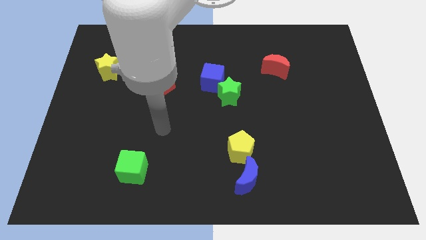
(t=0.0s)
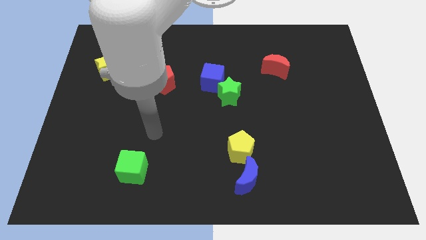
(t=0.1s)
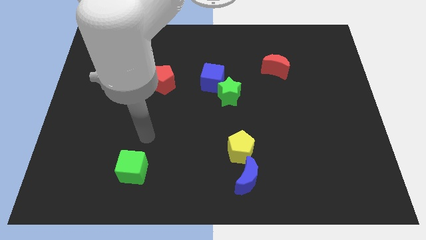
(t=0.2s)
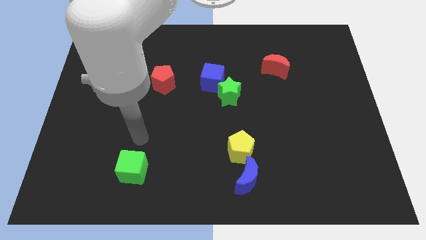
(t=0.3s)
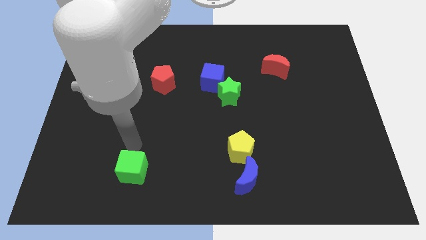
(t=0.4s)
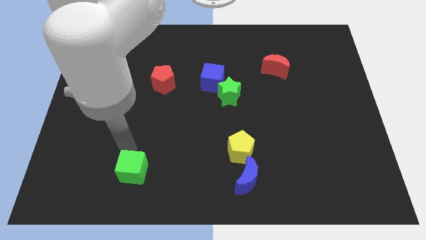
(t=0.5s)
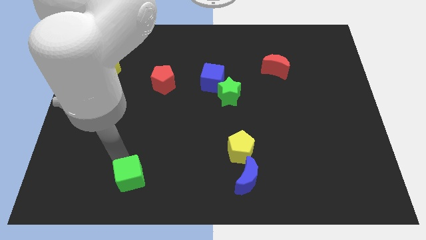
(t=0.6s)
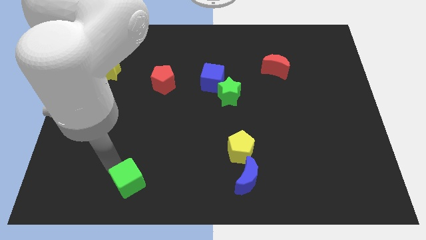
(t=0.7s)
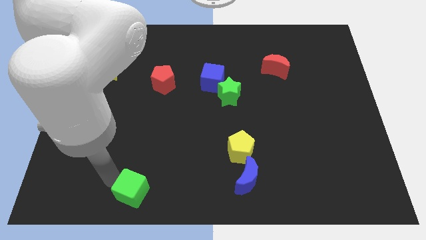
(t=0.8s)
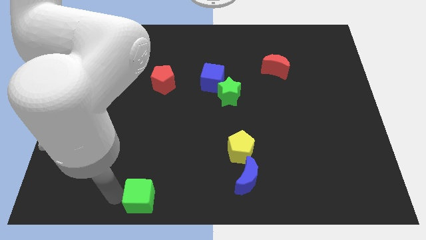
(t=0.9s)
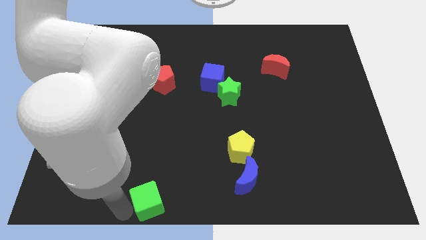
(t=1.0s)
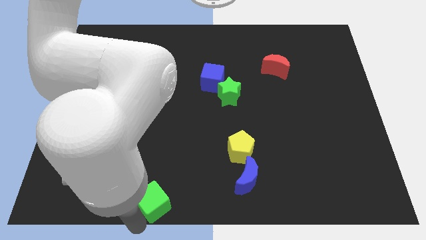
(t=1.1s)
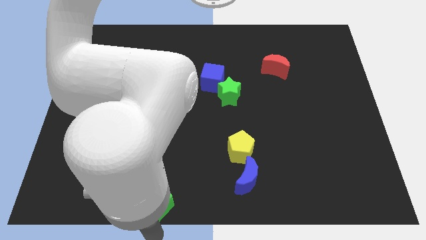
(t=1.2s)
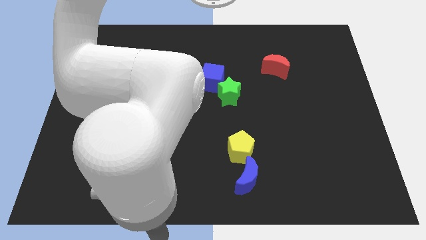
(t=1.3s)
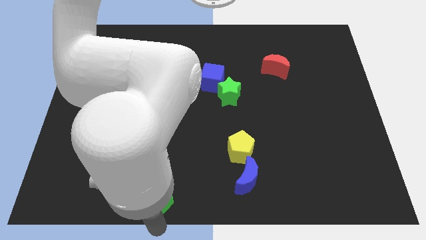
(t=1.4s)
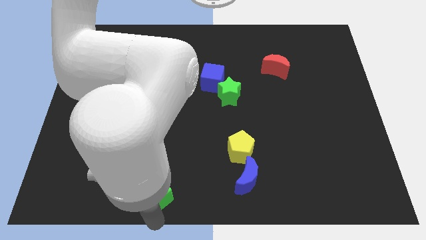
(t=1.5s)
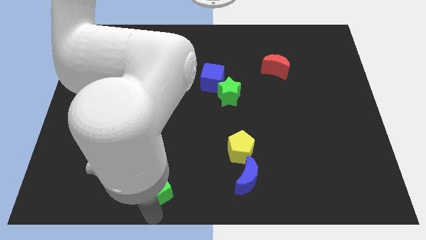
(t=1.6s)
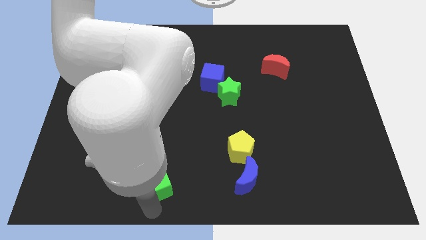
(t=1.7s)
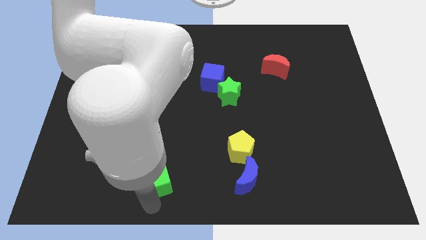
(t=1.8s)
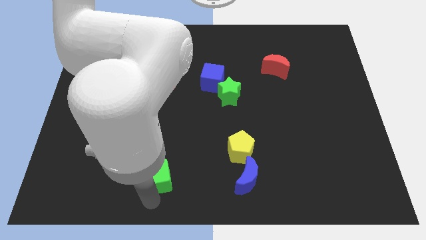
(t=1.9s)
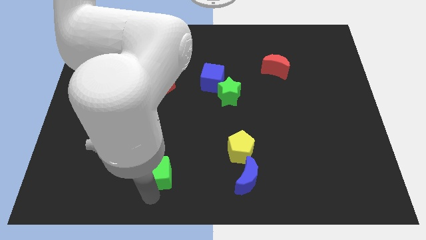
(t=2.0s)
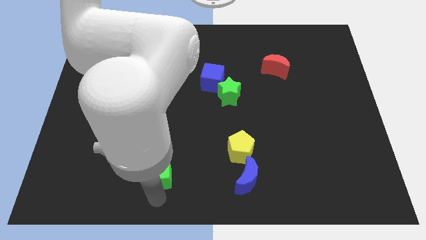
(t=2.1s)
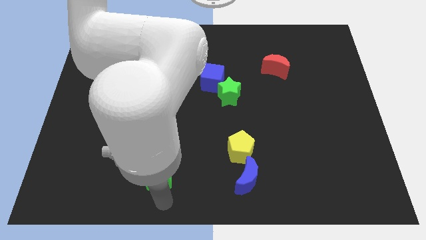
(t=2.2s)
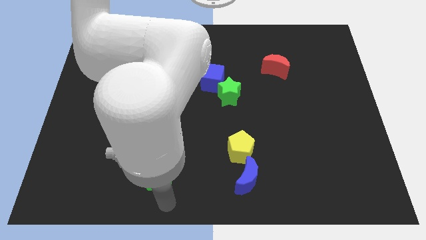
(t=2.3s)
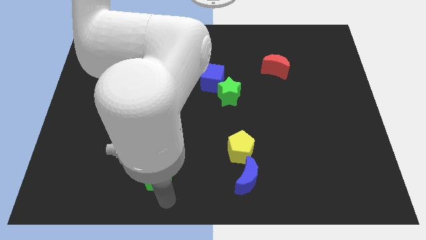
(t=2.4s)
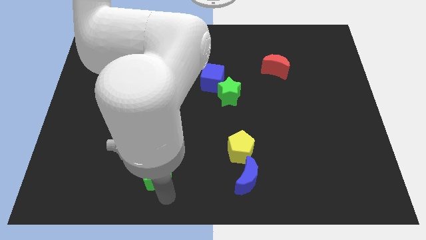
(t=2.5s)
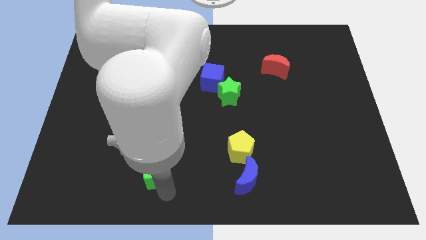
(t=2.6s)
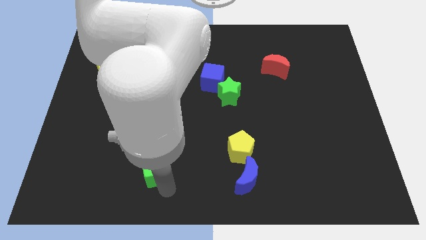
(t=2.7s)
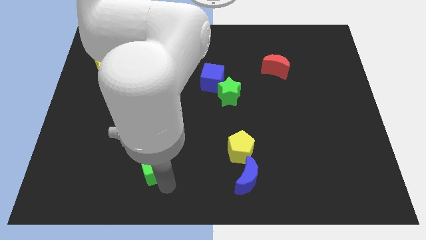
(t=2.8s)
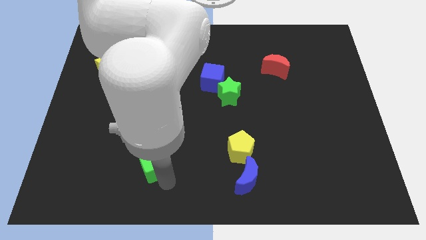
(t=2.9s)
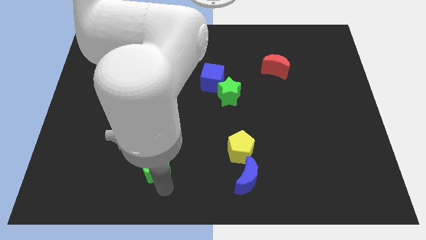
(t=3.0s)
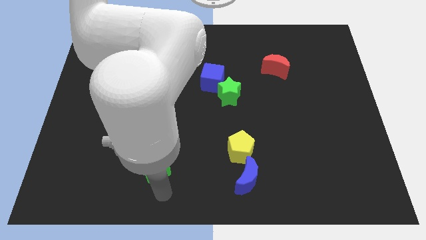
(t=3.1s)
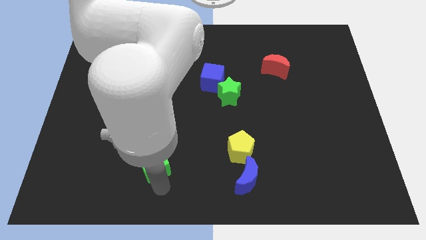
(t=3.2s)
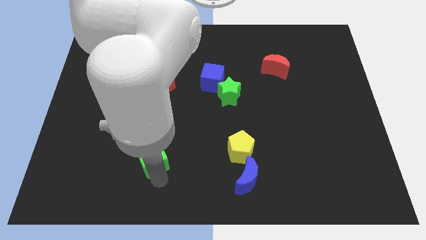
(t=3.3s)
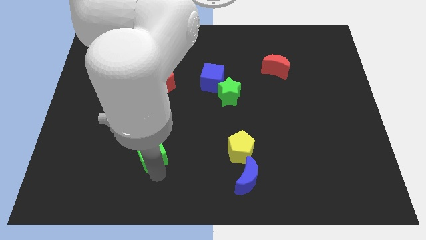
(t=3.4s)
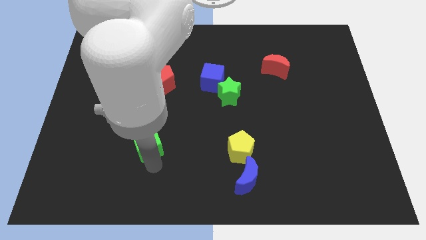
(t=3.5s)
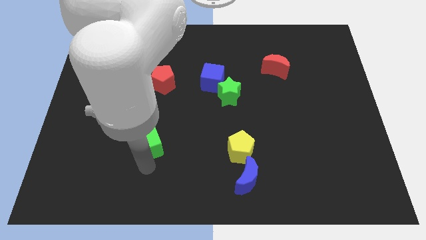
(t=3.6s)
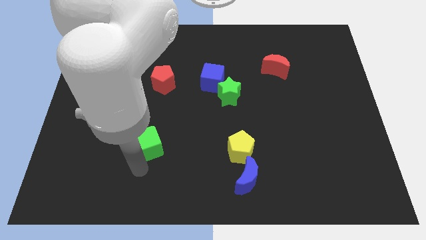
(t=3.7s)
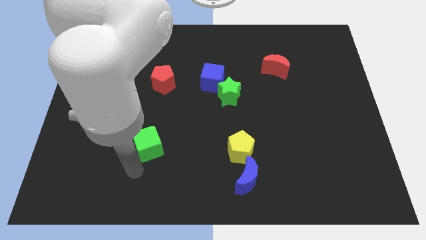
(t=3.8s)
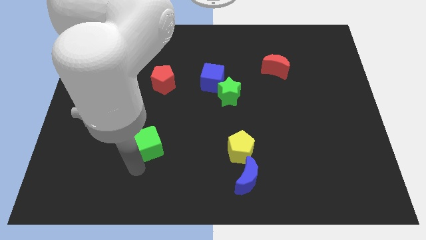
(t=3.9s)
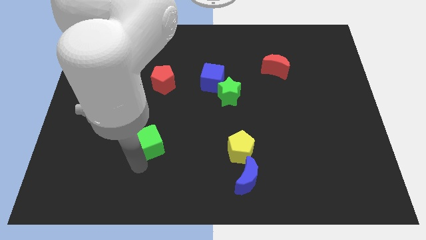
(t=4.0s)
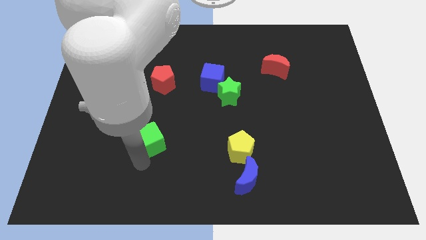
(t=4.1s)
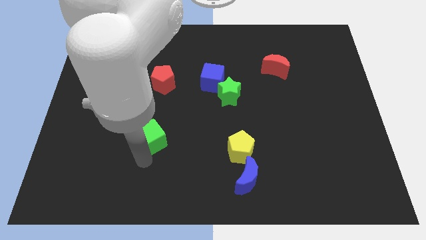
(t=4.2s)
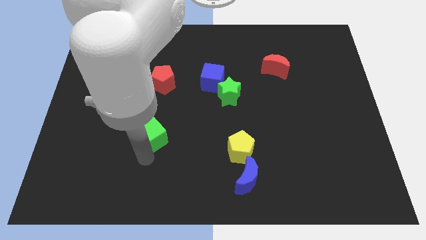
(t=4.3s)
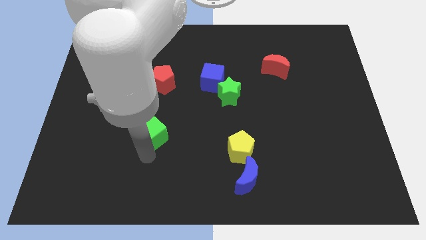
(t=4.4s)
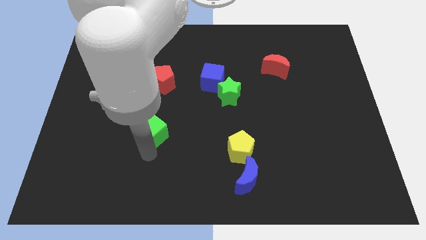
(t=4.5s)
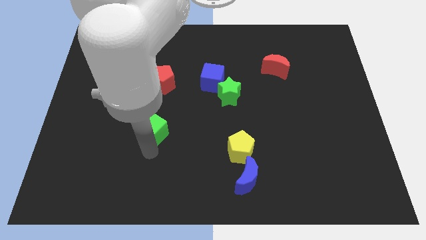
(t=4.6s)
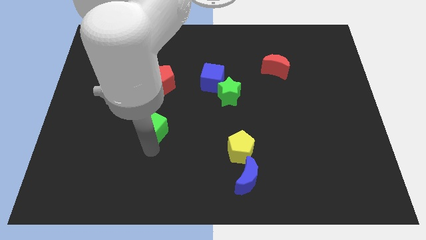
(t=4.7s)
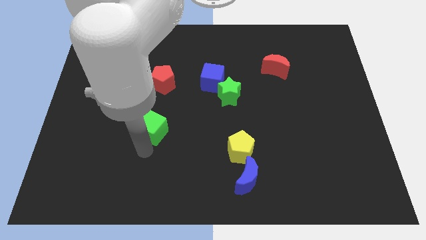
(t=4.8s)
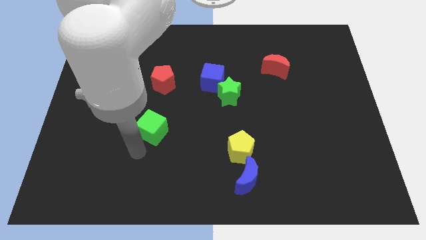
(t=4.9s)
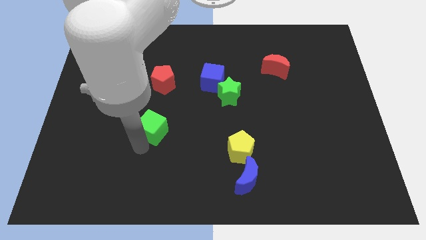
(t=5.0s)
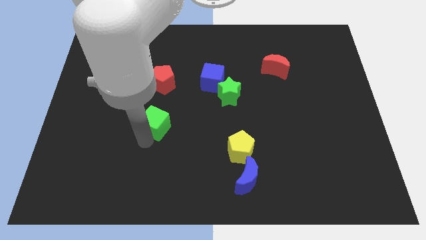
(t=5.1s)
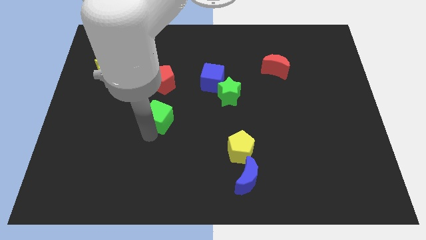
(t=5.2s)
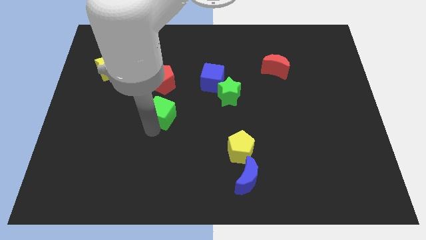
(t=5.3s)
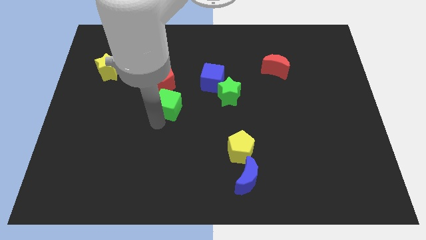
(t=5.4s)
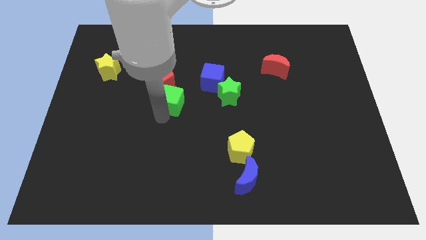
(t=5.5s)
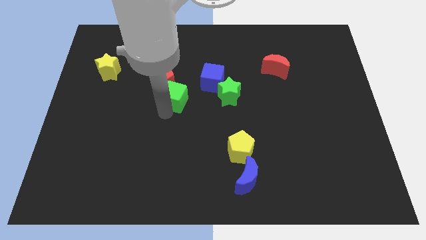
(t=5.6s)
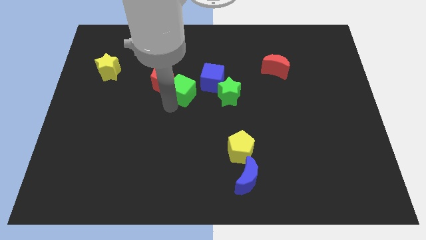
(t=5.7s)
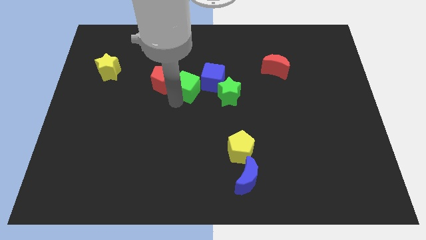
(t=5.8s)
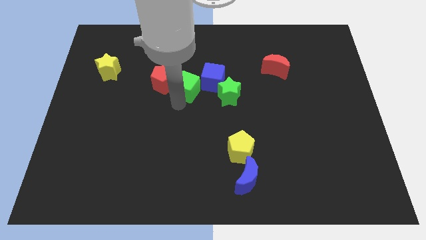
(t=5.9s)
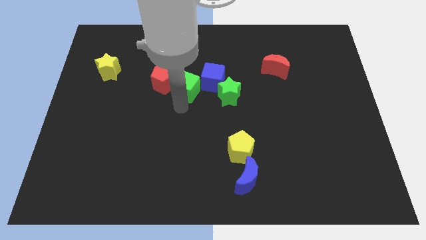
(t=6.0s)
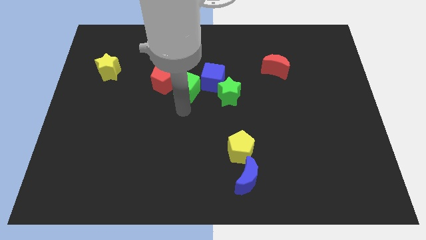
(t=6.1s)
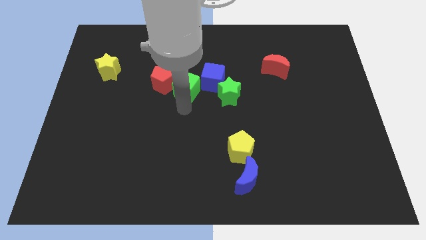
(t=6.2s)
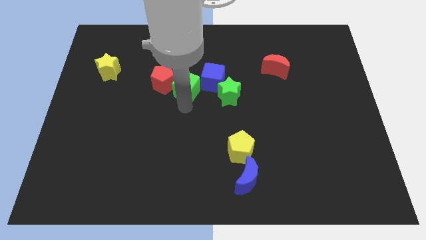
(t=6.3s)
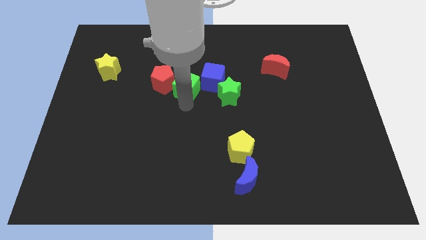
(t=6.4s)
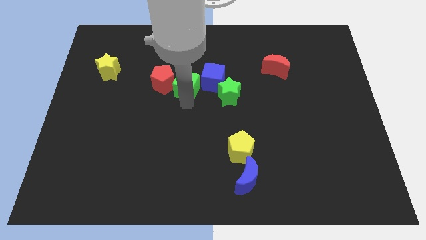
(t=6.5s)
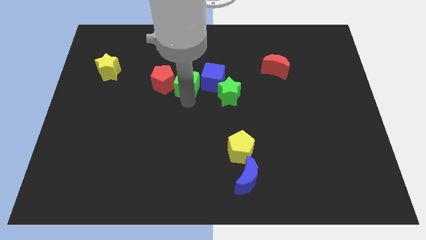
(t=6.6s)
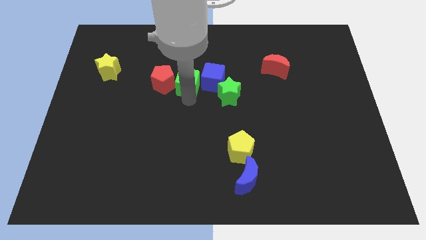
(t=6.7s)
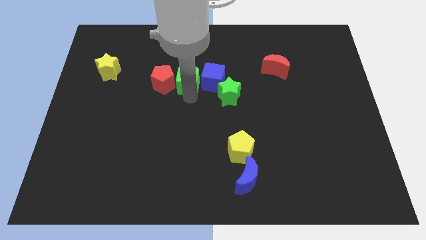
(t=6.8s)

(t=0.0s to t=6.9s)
slide the green cube to the top left of the blue cube

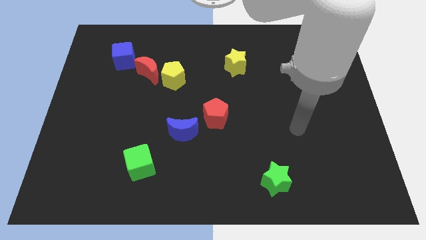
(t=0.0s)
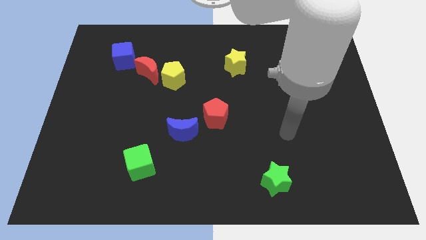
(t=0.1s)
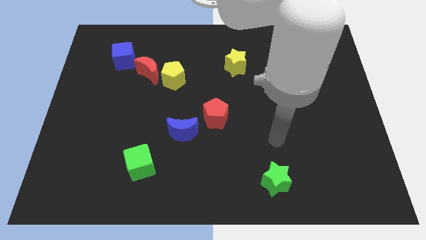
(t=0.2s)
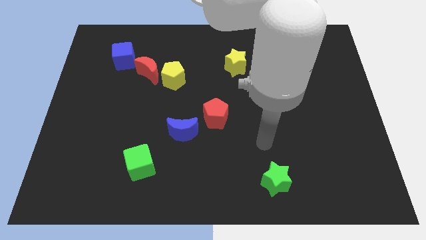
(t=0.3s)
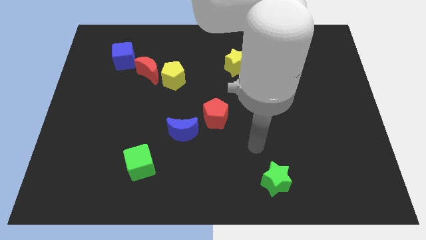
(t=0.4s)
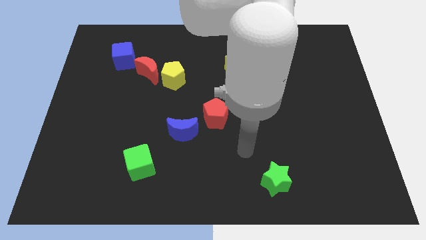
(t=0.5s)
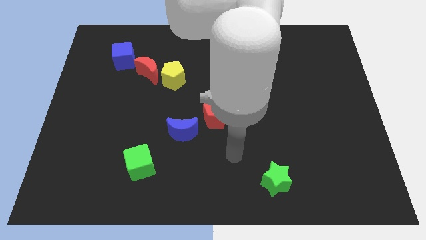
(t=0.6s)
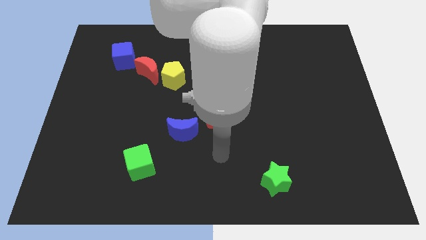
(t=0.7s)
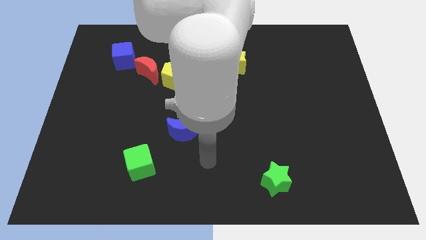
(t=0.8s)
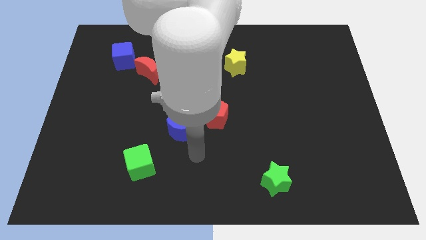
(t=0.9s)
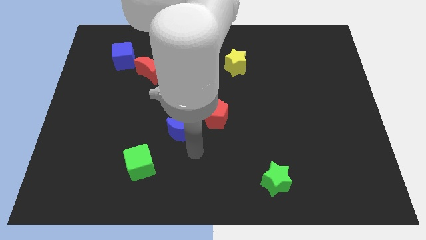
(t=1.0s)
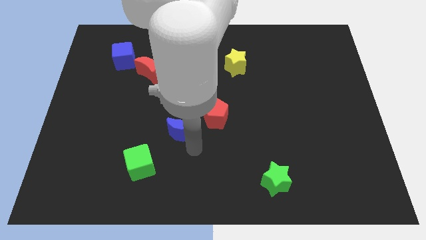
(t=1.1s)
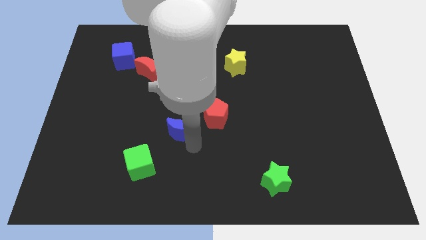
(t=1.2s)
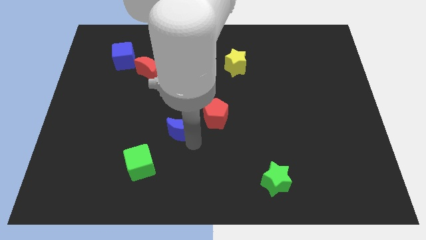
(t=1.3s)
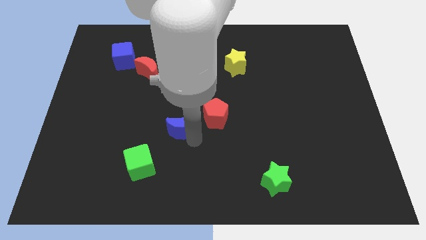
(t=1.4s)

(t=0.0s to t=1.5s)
slide the blue moon below the yellow pentagon
